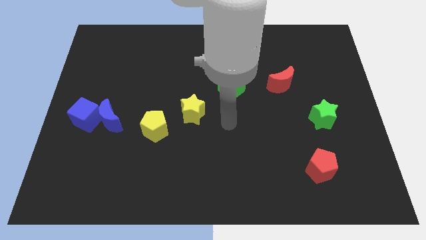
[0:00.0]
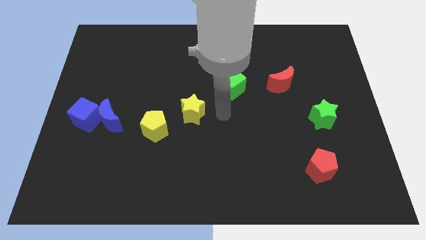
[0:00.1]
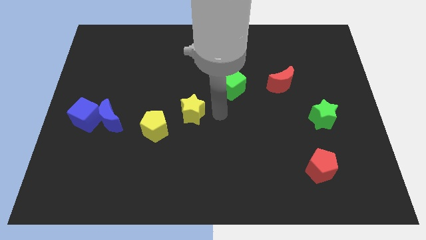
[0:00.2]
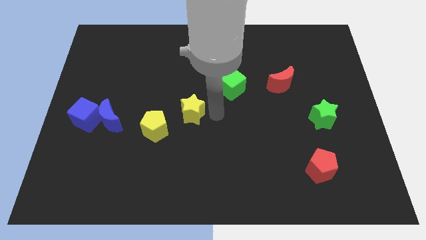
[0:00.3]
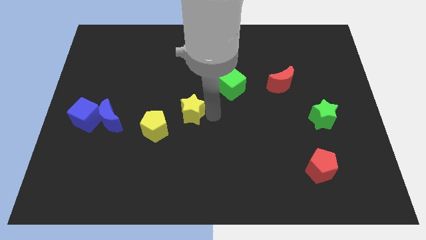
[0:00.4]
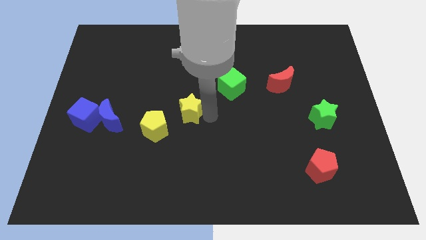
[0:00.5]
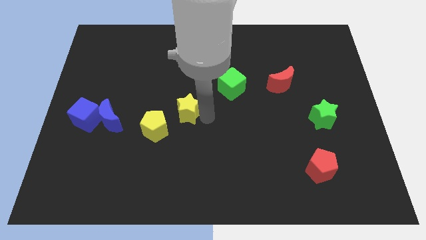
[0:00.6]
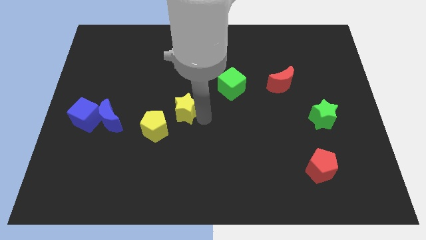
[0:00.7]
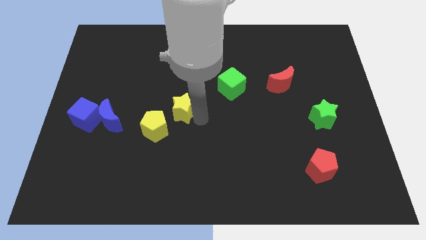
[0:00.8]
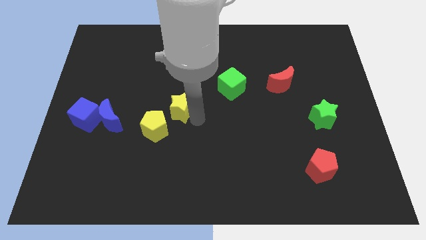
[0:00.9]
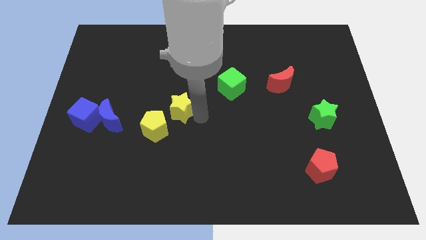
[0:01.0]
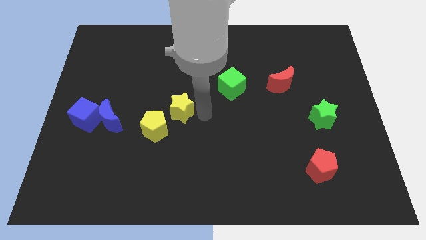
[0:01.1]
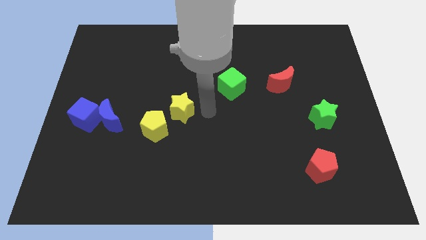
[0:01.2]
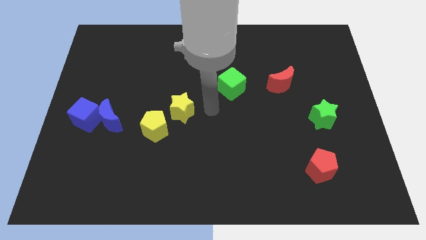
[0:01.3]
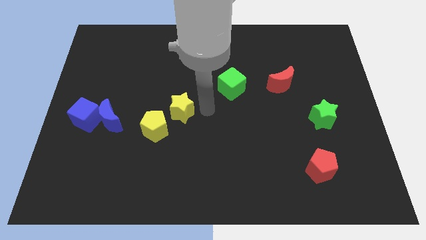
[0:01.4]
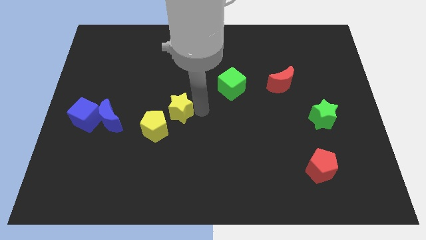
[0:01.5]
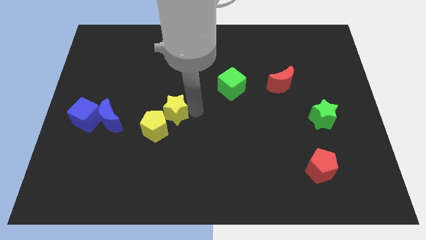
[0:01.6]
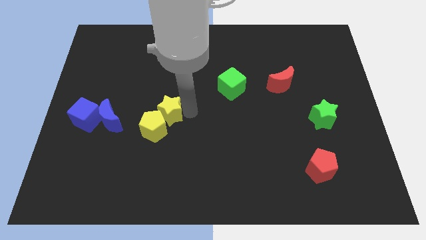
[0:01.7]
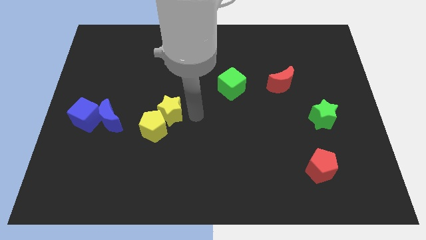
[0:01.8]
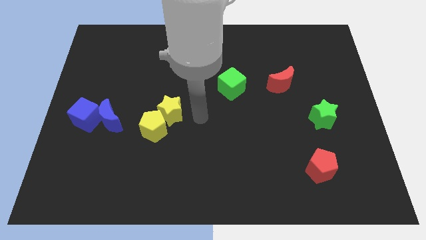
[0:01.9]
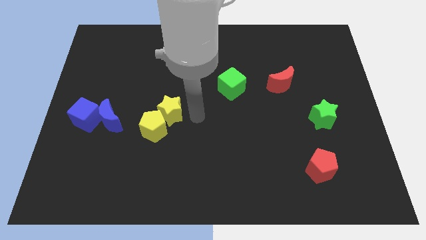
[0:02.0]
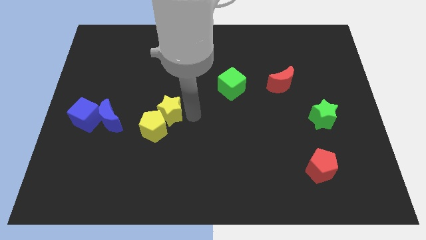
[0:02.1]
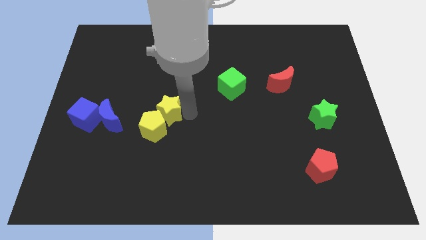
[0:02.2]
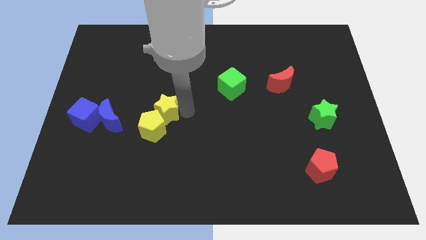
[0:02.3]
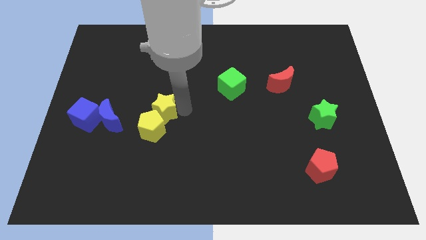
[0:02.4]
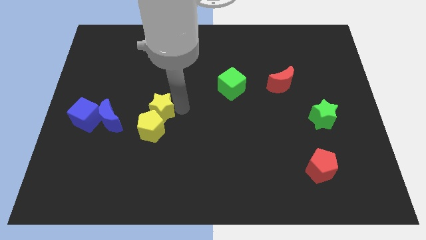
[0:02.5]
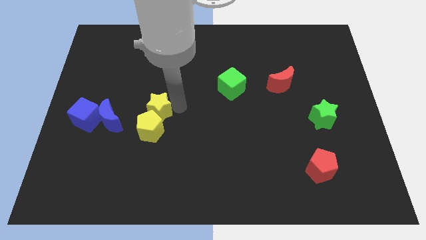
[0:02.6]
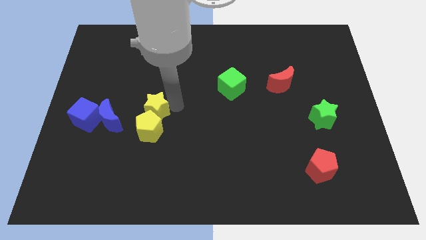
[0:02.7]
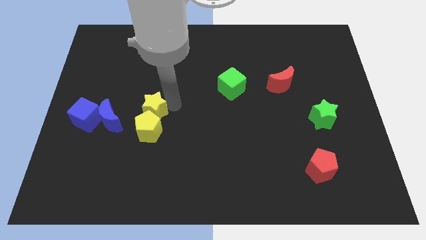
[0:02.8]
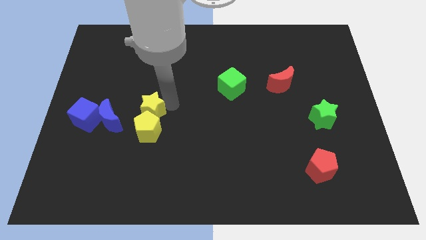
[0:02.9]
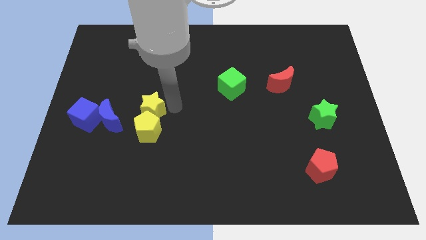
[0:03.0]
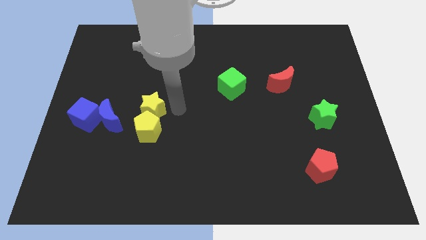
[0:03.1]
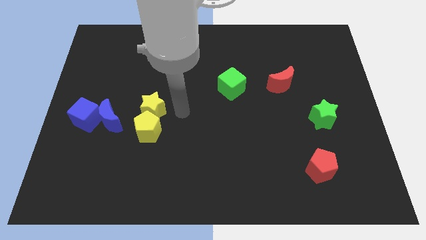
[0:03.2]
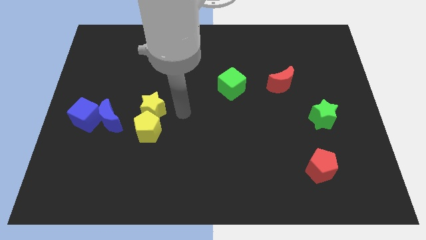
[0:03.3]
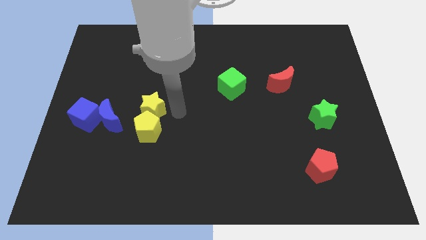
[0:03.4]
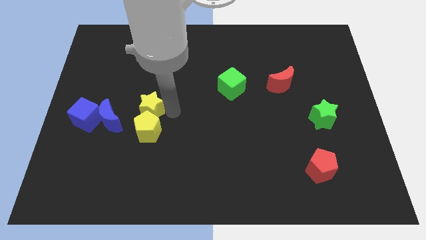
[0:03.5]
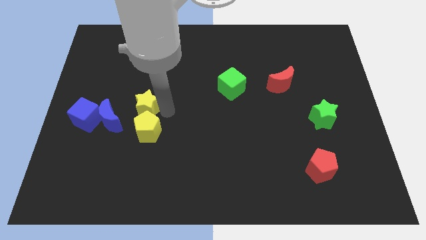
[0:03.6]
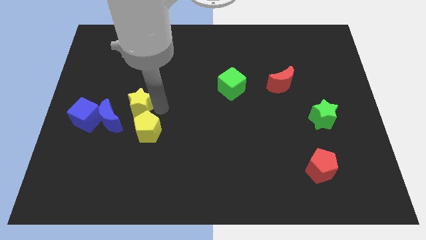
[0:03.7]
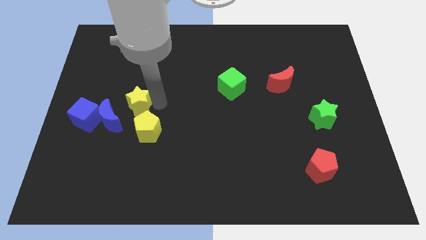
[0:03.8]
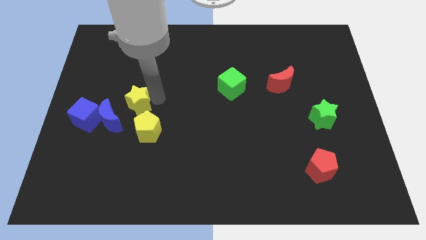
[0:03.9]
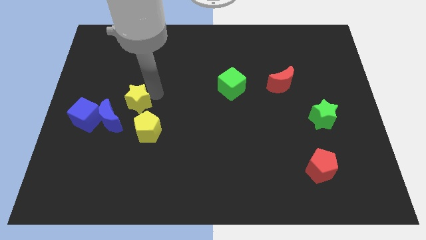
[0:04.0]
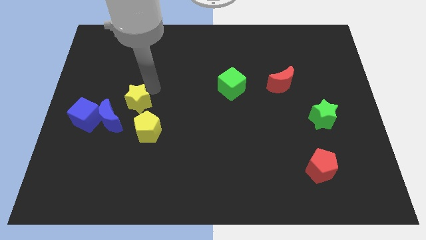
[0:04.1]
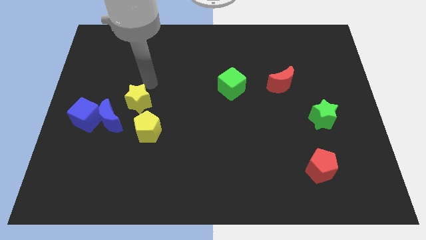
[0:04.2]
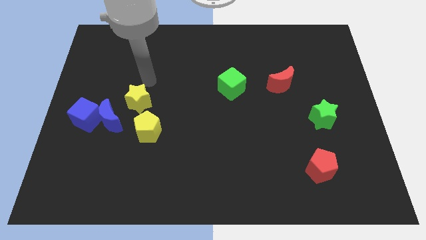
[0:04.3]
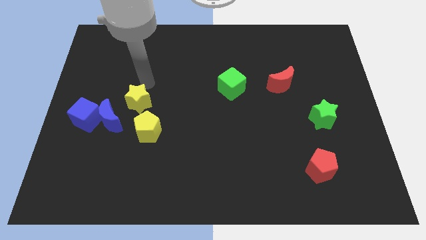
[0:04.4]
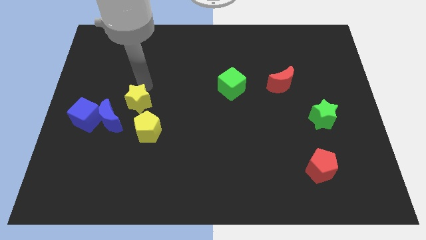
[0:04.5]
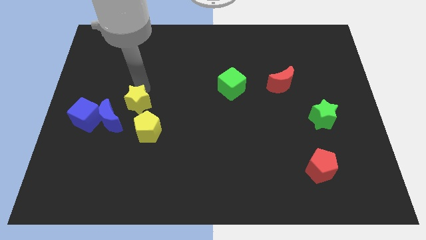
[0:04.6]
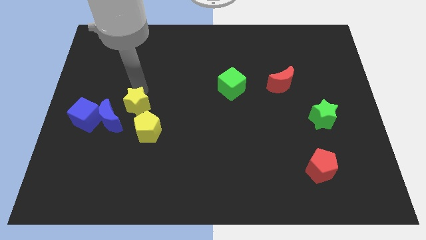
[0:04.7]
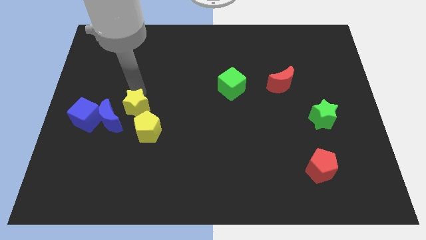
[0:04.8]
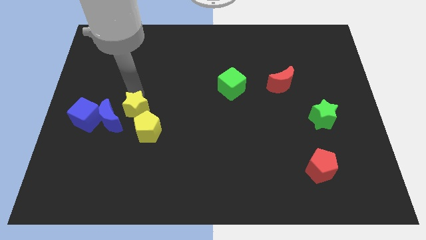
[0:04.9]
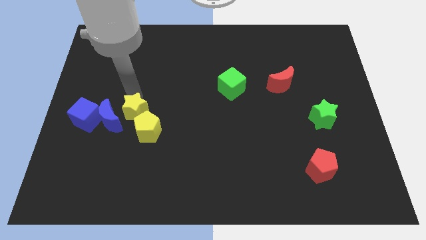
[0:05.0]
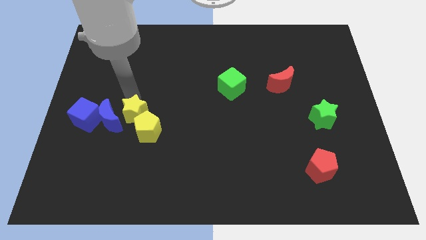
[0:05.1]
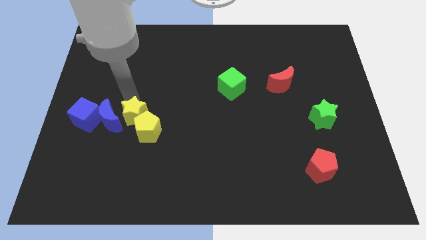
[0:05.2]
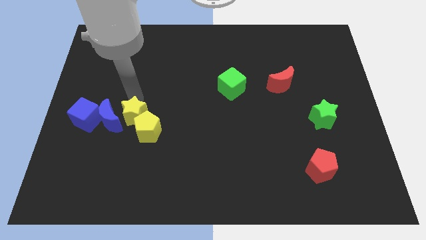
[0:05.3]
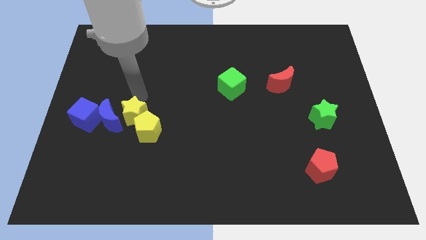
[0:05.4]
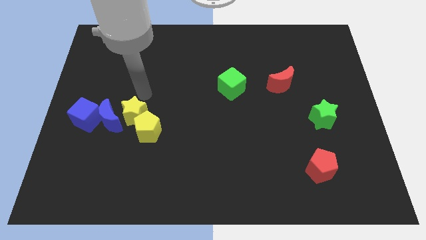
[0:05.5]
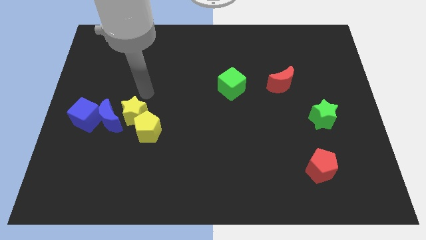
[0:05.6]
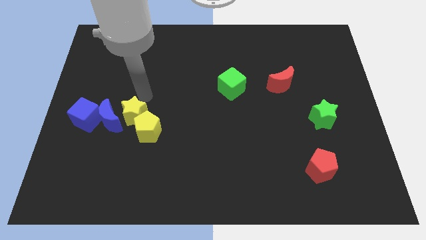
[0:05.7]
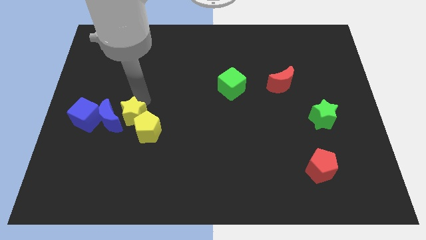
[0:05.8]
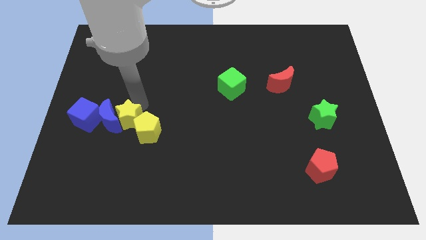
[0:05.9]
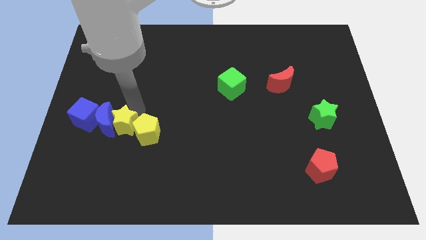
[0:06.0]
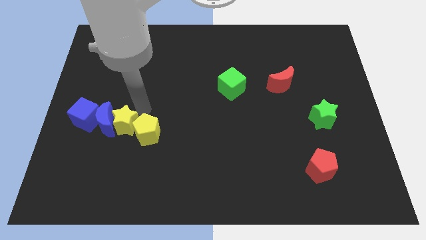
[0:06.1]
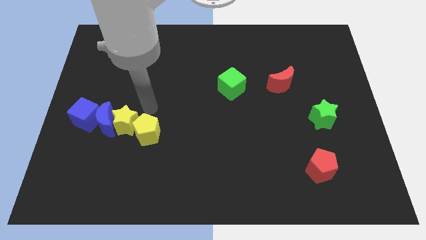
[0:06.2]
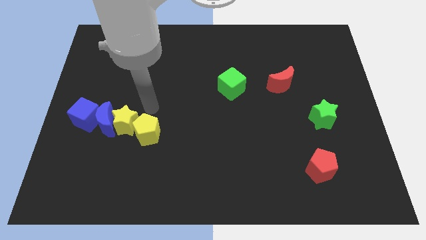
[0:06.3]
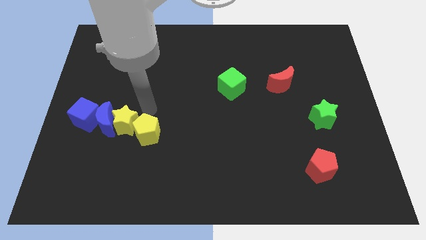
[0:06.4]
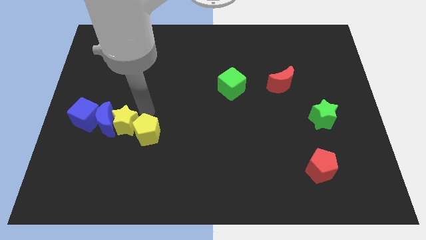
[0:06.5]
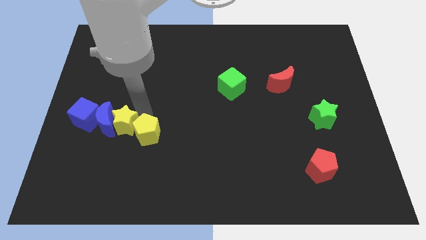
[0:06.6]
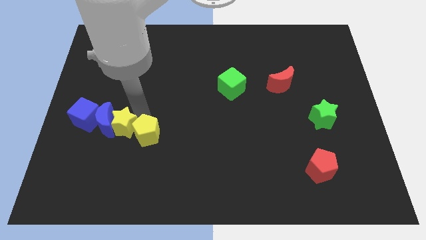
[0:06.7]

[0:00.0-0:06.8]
move the yellow star diagonally down and to the right of the blue cube
